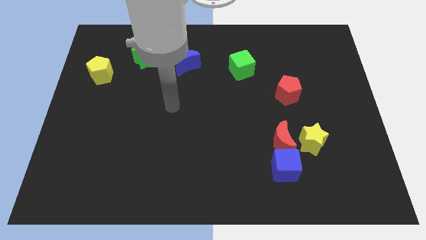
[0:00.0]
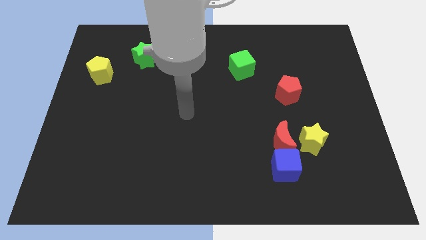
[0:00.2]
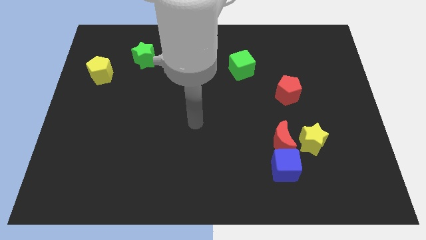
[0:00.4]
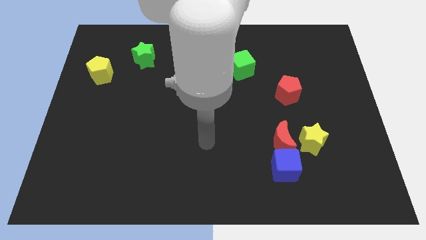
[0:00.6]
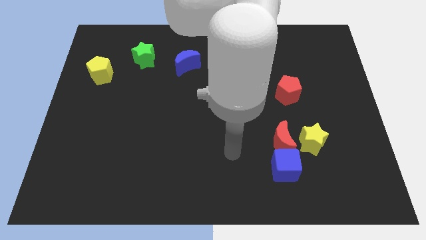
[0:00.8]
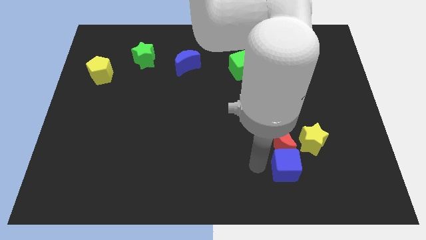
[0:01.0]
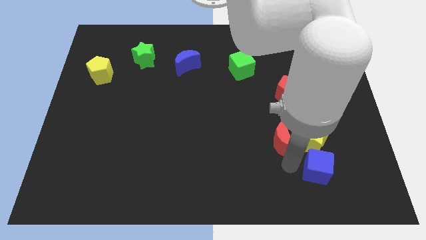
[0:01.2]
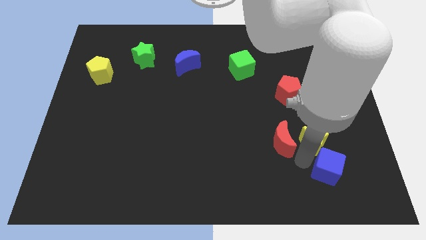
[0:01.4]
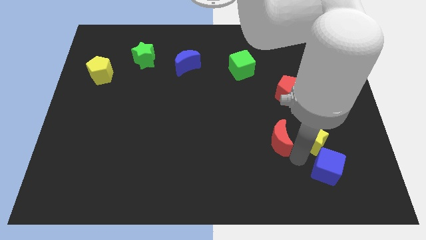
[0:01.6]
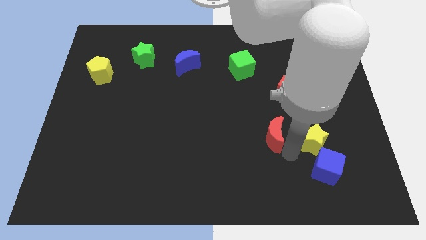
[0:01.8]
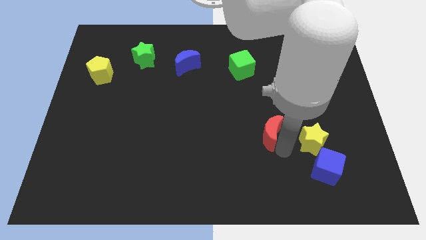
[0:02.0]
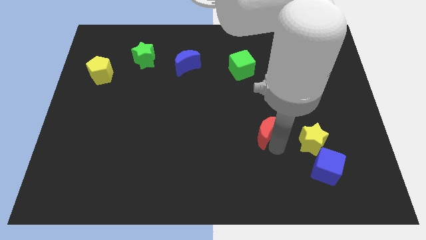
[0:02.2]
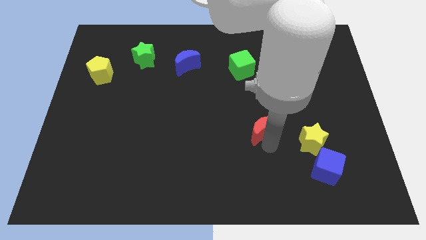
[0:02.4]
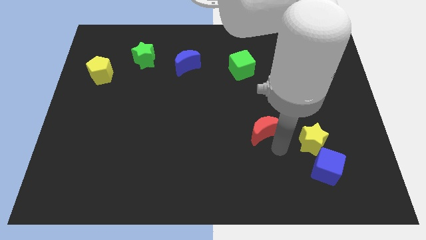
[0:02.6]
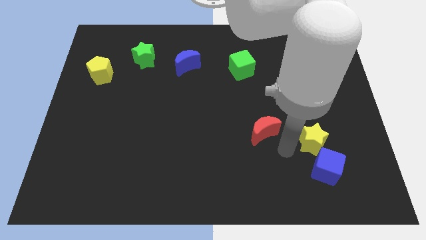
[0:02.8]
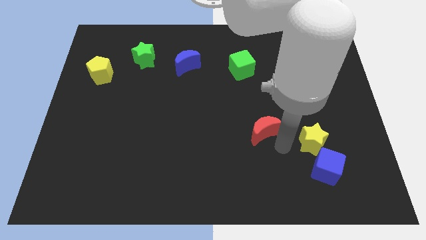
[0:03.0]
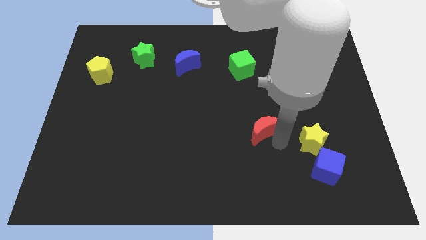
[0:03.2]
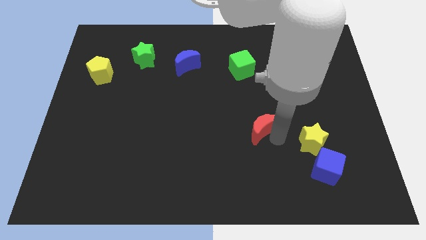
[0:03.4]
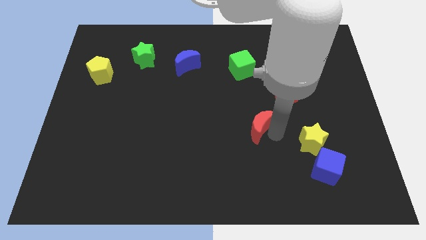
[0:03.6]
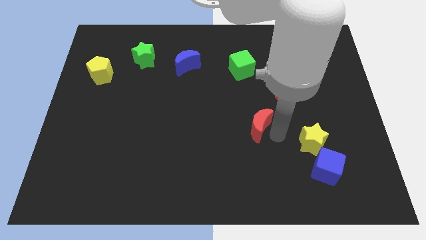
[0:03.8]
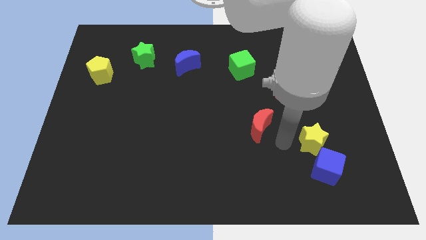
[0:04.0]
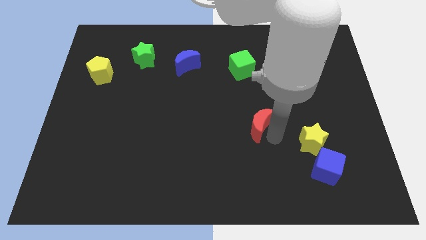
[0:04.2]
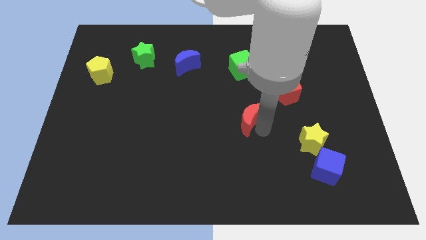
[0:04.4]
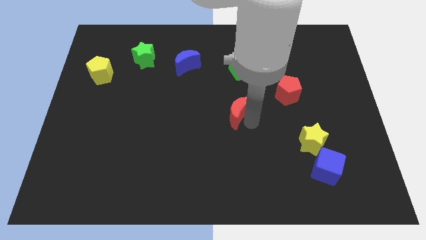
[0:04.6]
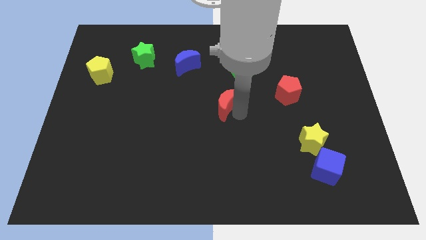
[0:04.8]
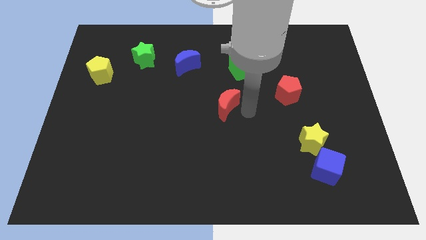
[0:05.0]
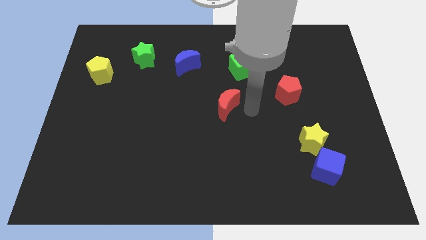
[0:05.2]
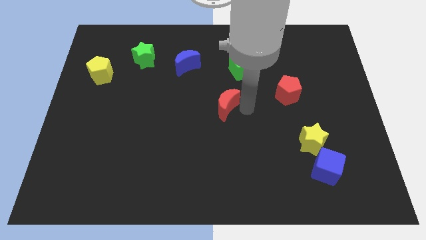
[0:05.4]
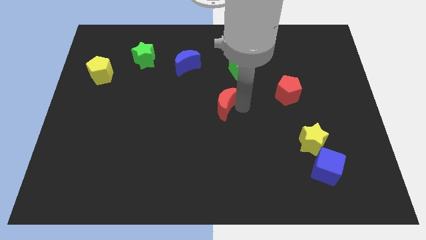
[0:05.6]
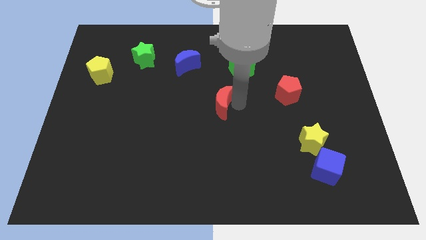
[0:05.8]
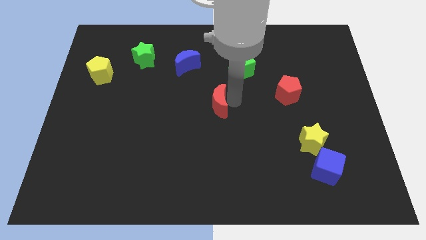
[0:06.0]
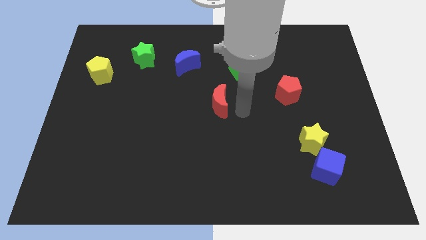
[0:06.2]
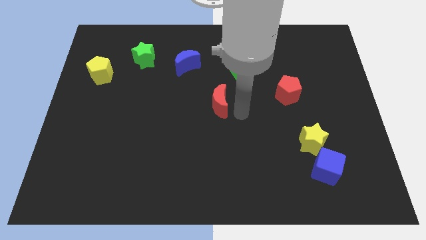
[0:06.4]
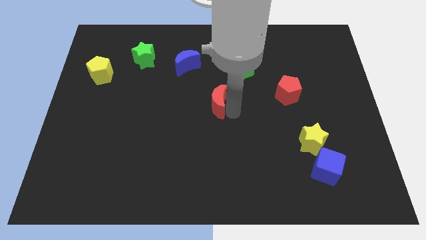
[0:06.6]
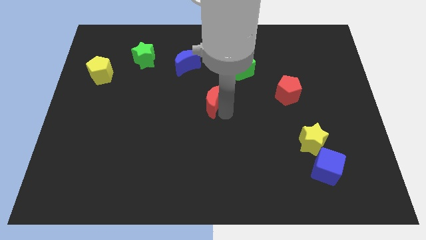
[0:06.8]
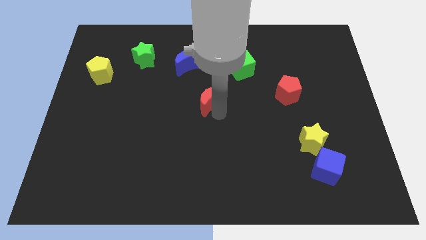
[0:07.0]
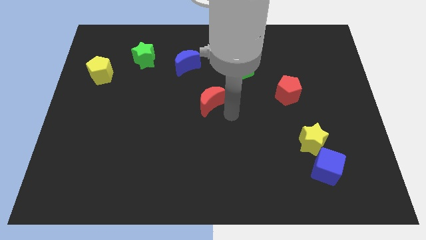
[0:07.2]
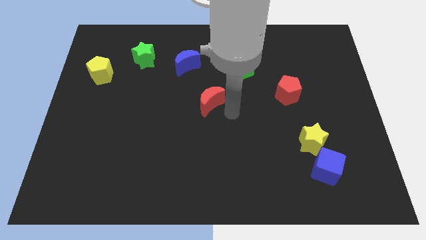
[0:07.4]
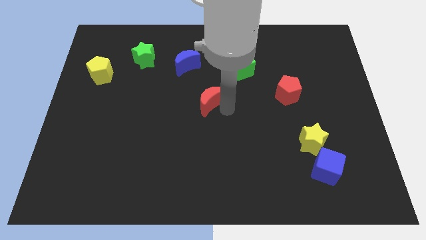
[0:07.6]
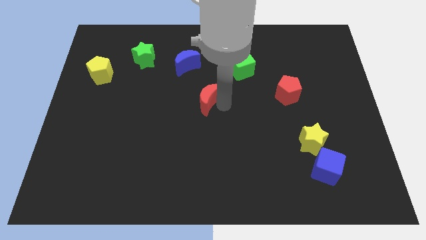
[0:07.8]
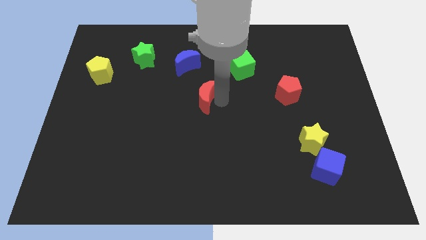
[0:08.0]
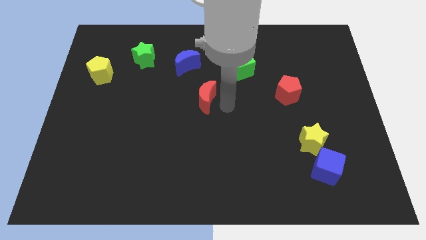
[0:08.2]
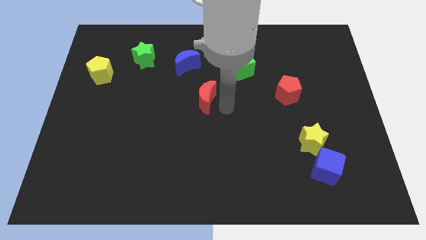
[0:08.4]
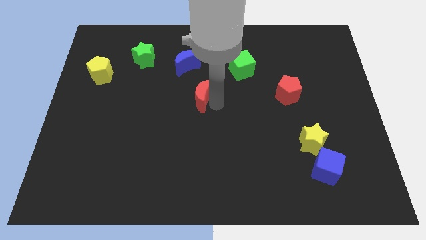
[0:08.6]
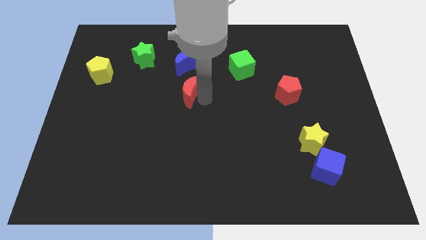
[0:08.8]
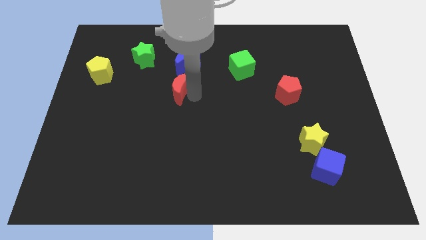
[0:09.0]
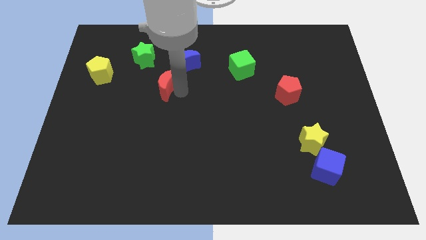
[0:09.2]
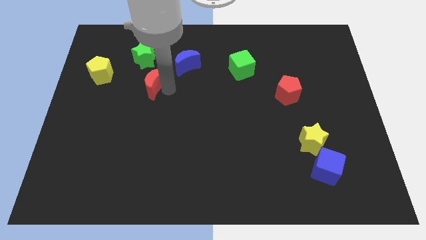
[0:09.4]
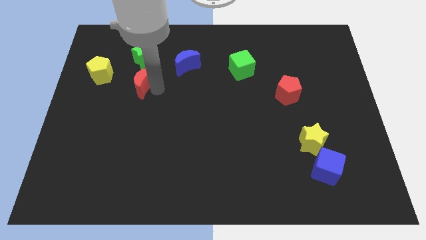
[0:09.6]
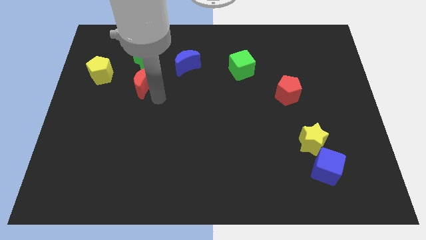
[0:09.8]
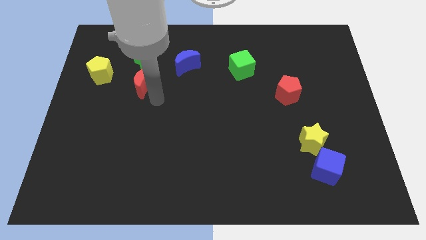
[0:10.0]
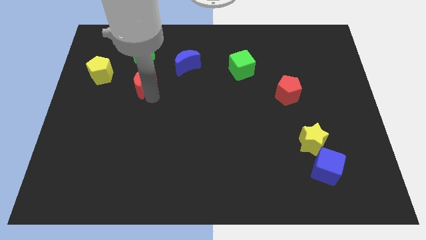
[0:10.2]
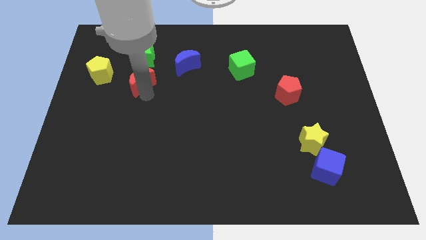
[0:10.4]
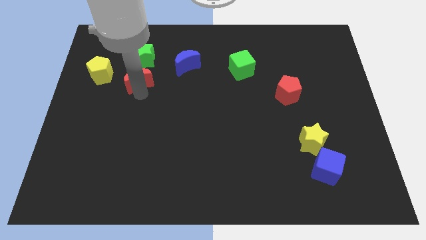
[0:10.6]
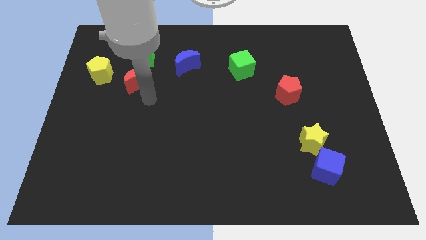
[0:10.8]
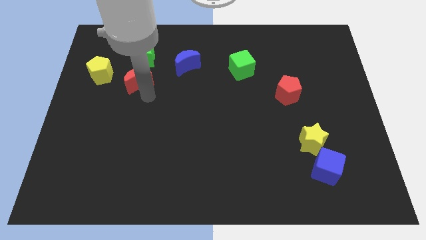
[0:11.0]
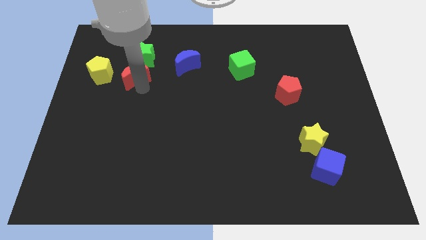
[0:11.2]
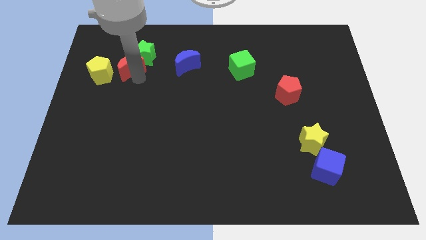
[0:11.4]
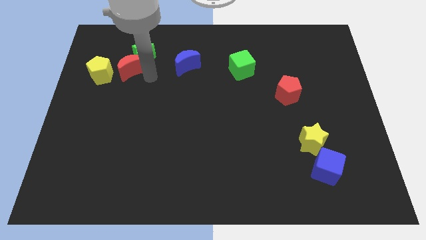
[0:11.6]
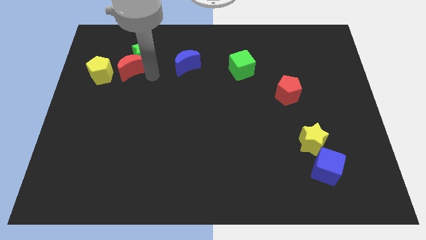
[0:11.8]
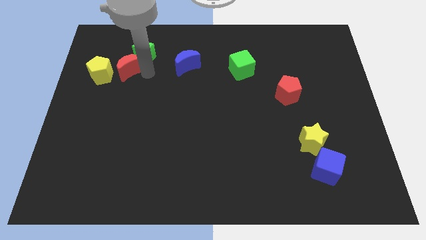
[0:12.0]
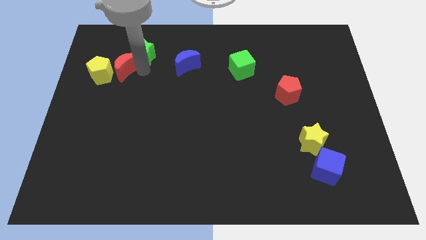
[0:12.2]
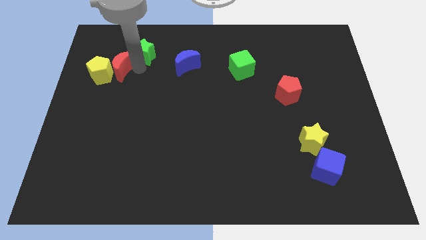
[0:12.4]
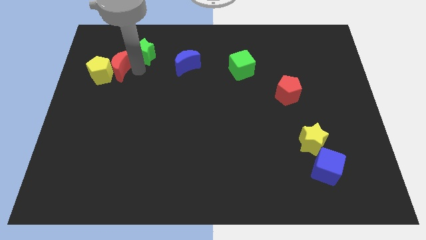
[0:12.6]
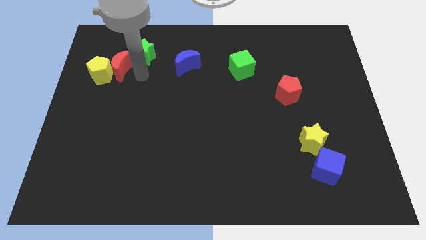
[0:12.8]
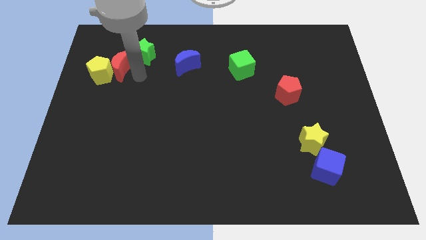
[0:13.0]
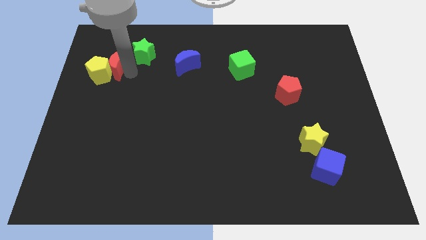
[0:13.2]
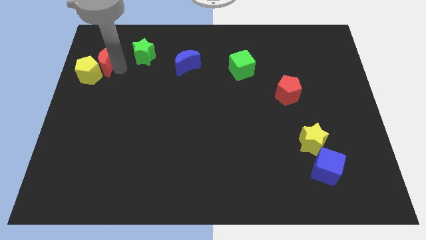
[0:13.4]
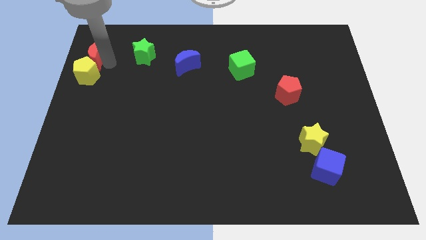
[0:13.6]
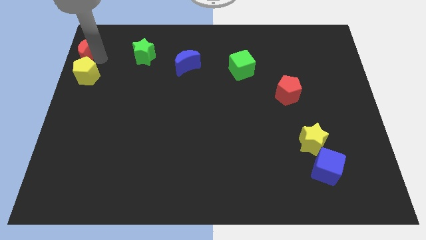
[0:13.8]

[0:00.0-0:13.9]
push the red moon to the top left corner
